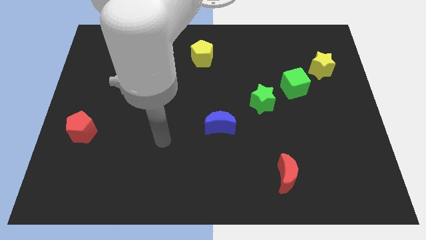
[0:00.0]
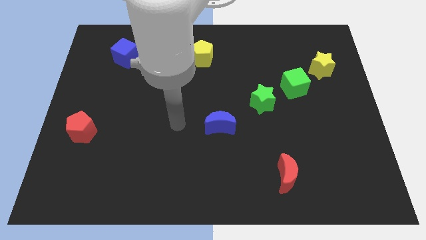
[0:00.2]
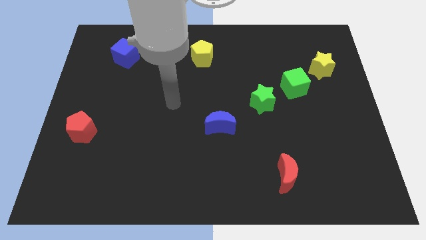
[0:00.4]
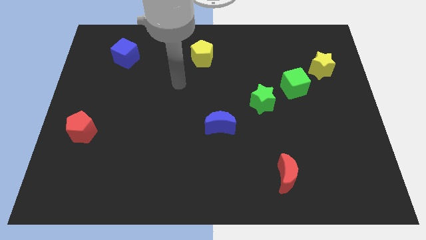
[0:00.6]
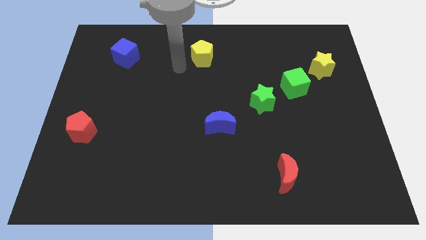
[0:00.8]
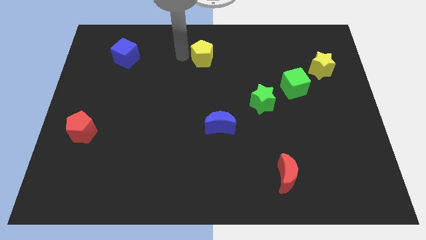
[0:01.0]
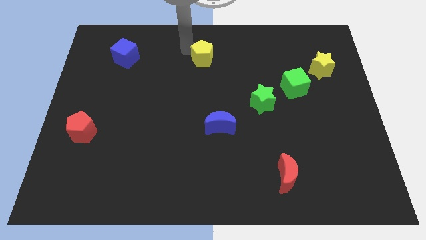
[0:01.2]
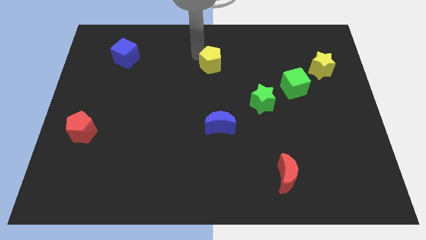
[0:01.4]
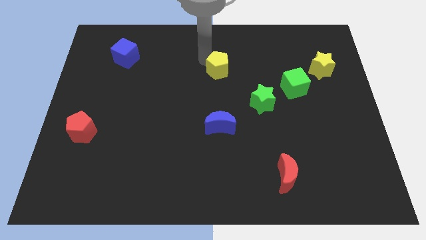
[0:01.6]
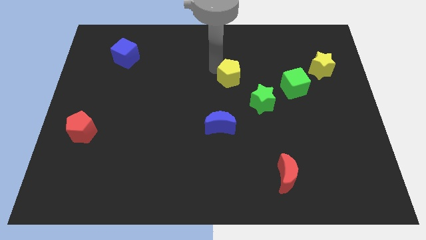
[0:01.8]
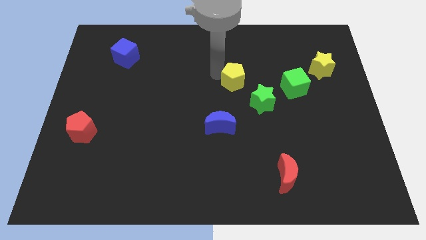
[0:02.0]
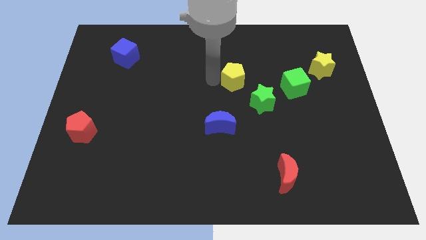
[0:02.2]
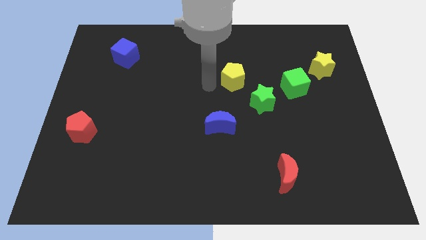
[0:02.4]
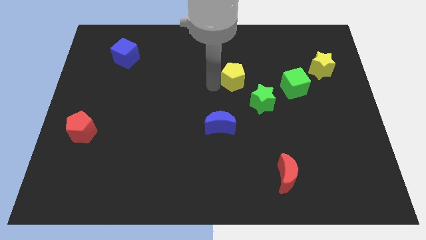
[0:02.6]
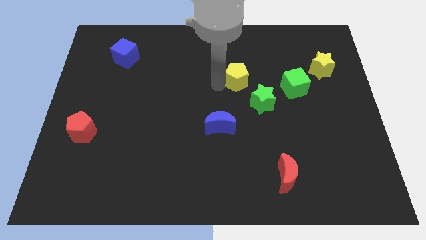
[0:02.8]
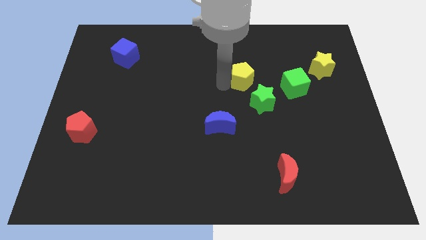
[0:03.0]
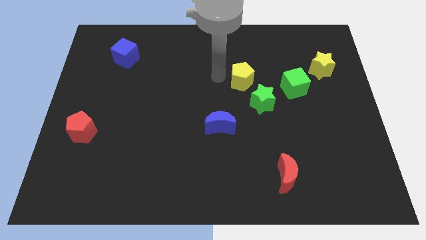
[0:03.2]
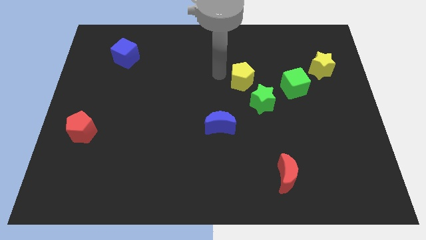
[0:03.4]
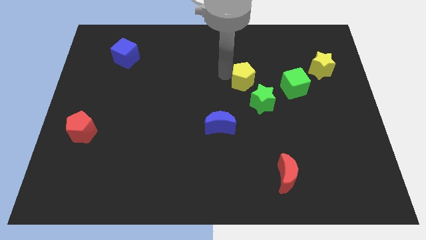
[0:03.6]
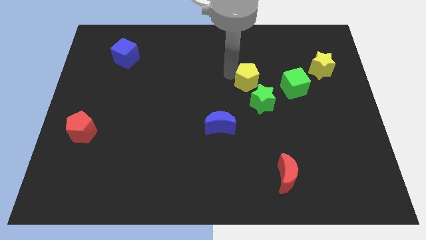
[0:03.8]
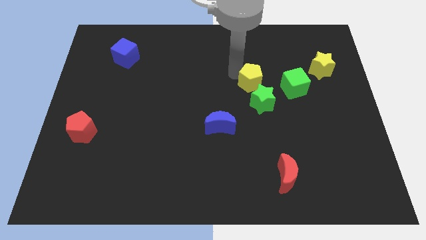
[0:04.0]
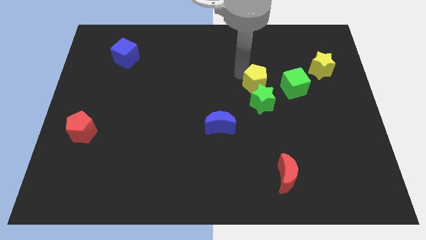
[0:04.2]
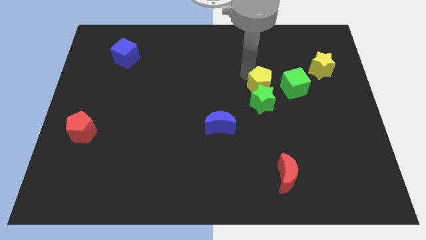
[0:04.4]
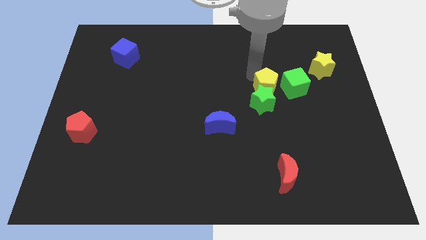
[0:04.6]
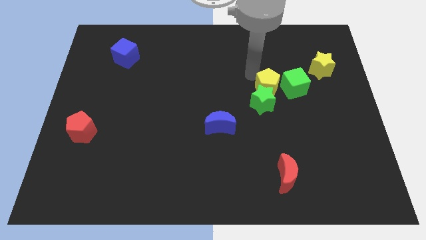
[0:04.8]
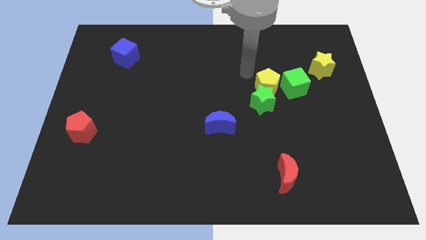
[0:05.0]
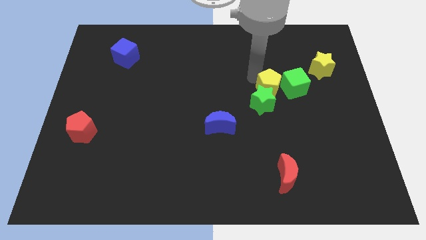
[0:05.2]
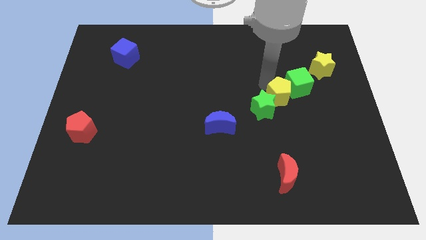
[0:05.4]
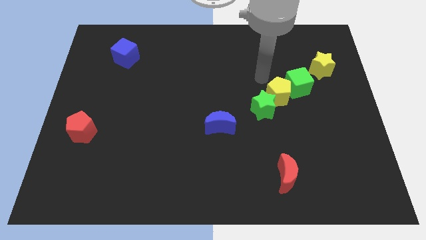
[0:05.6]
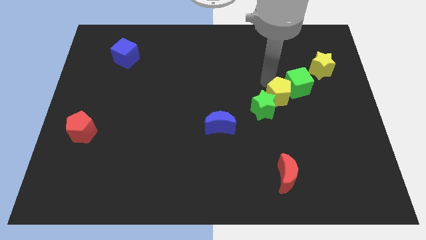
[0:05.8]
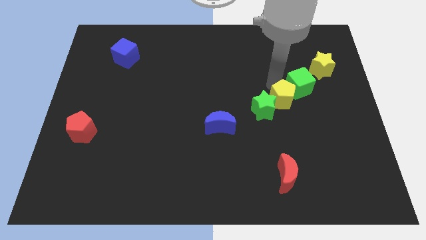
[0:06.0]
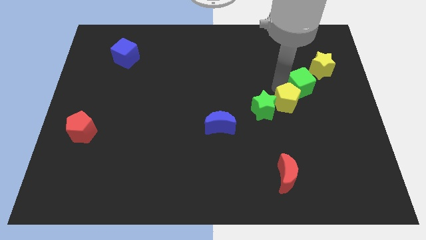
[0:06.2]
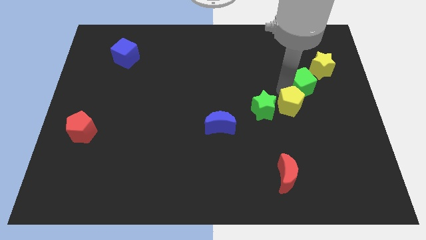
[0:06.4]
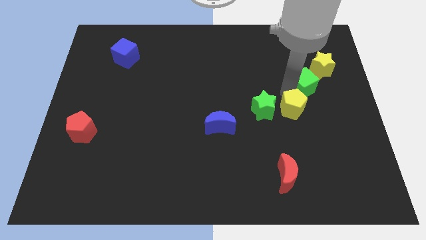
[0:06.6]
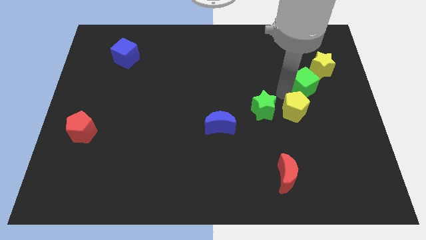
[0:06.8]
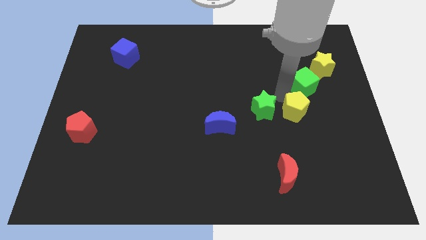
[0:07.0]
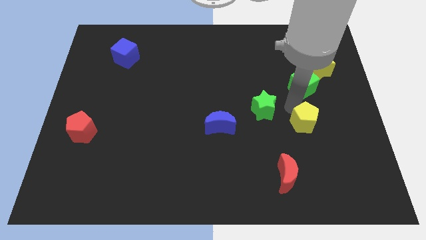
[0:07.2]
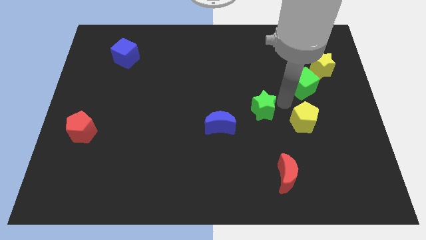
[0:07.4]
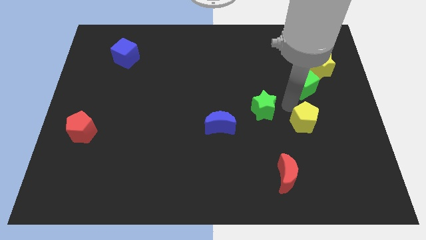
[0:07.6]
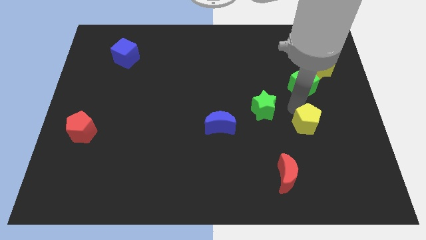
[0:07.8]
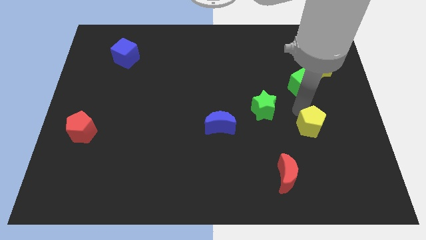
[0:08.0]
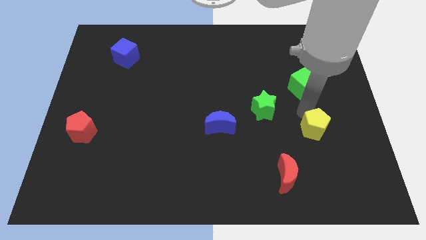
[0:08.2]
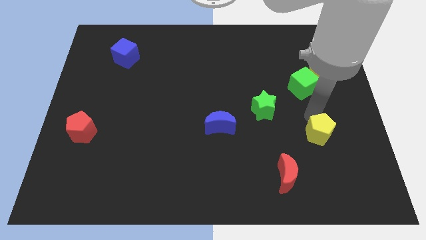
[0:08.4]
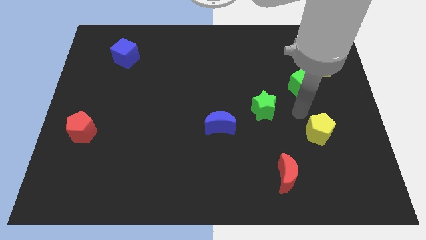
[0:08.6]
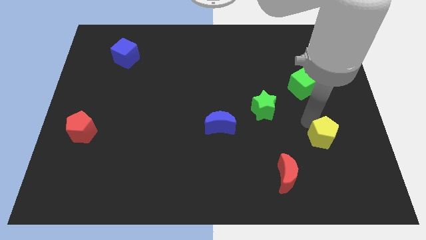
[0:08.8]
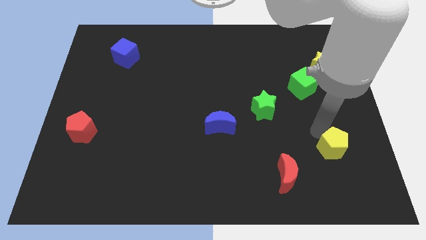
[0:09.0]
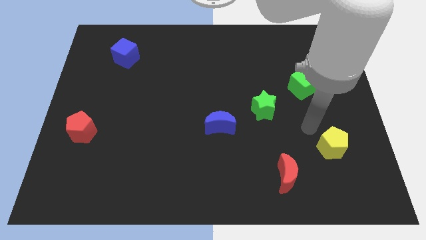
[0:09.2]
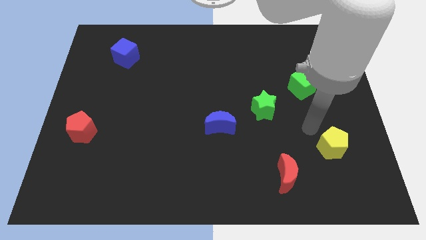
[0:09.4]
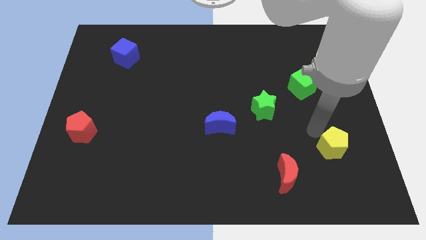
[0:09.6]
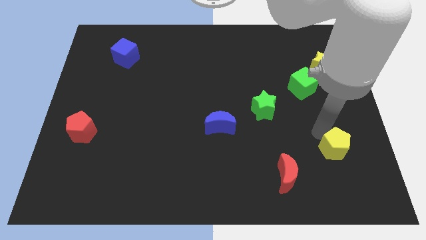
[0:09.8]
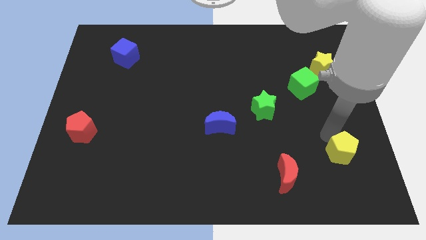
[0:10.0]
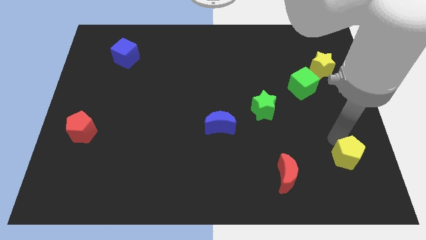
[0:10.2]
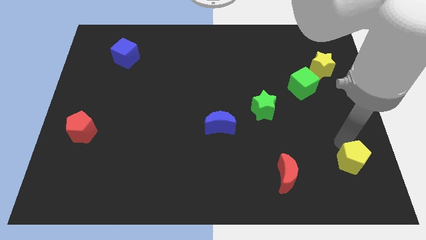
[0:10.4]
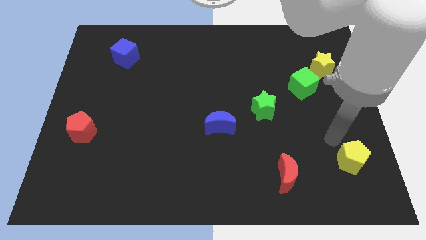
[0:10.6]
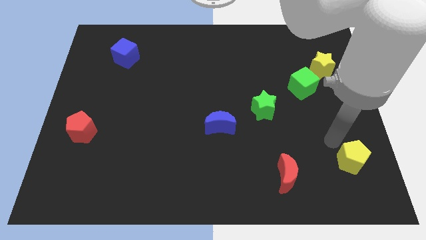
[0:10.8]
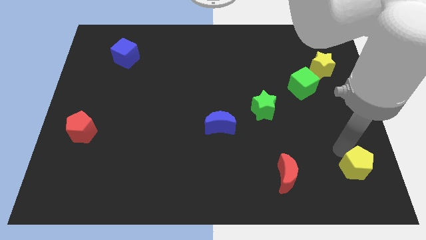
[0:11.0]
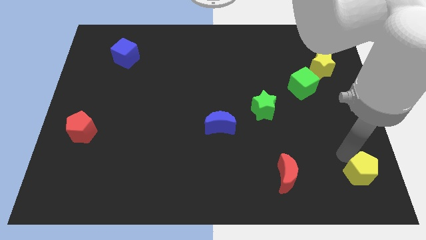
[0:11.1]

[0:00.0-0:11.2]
put the yellow pentagon to the bottom right
